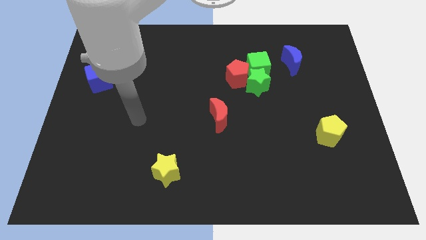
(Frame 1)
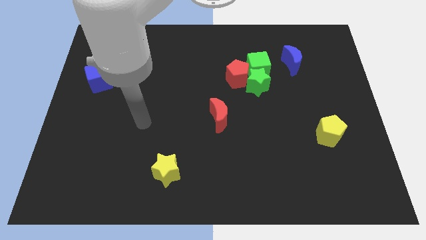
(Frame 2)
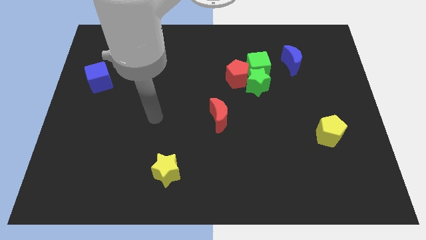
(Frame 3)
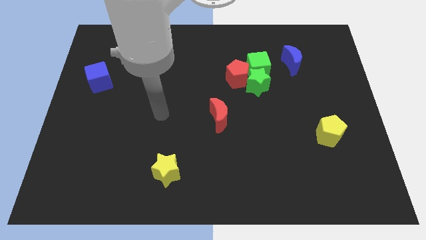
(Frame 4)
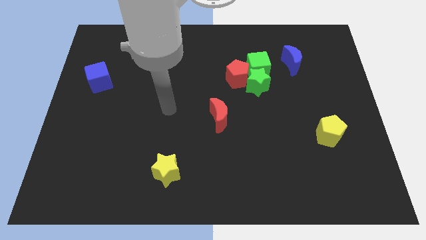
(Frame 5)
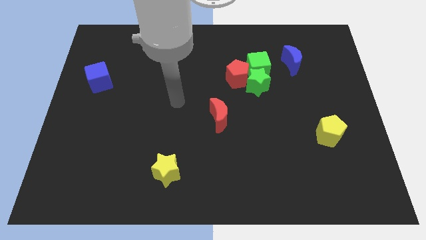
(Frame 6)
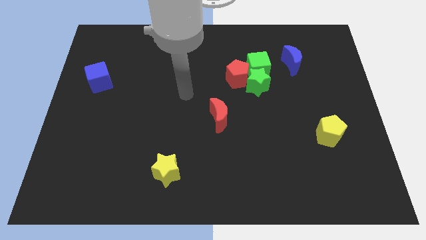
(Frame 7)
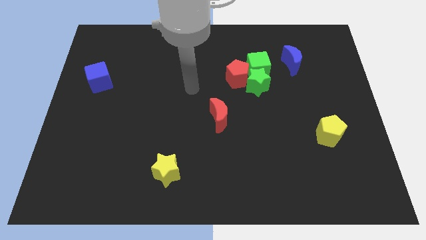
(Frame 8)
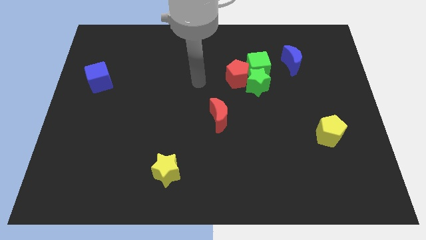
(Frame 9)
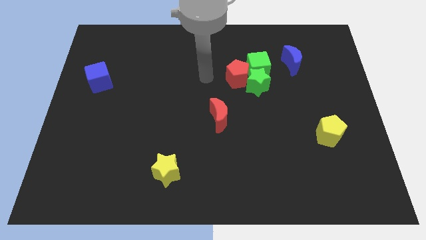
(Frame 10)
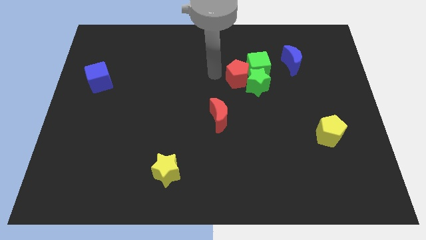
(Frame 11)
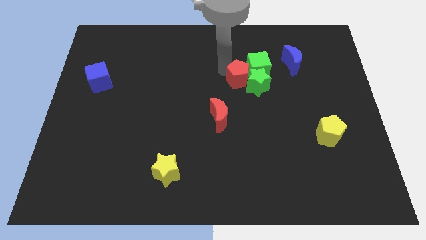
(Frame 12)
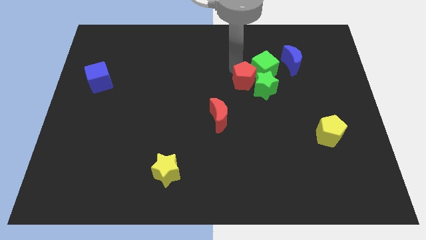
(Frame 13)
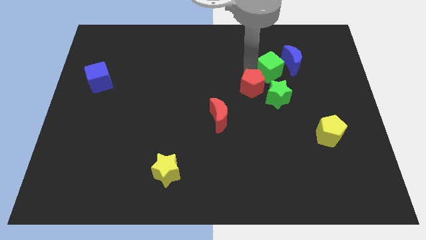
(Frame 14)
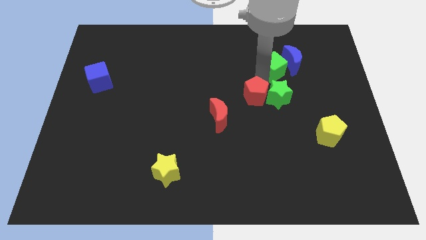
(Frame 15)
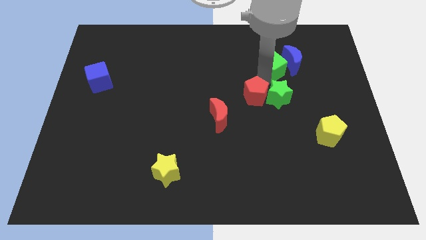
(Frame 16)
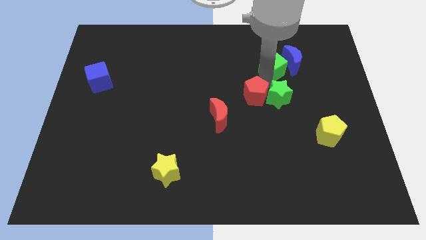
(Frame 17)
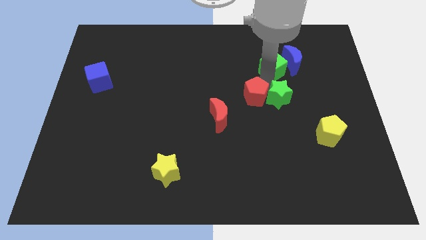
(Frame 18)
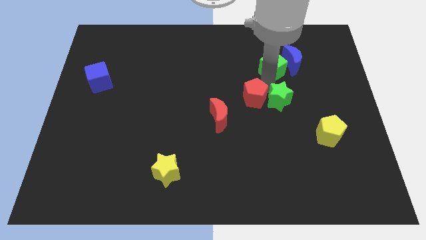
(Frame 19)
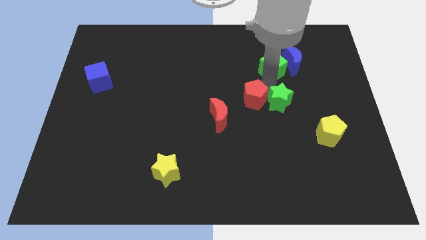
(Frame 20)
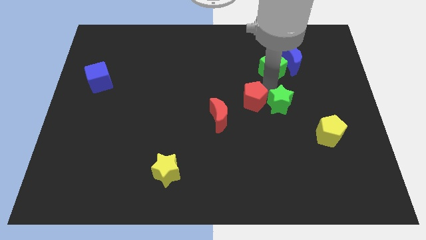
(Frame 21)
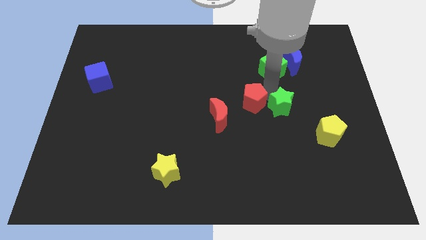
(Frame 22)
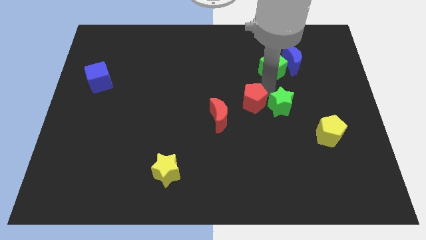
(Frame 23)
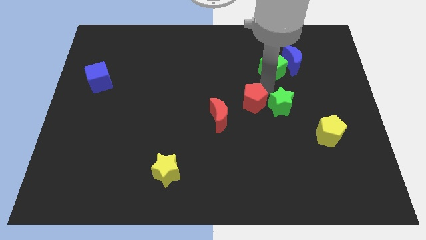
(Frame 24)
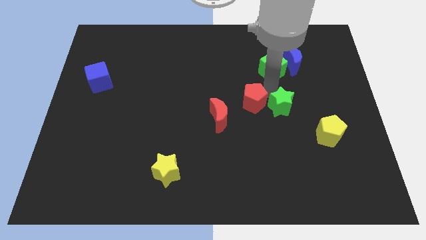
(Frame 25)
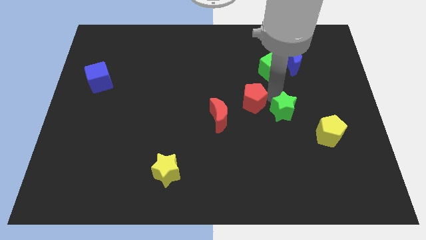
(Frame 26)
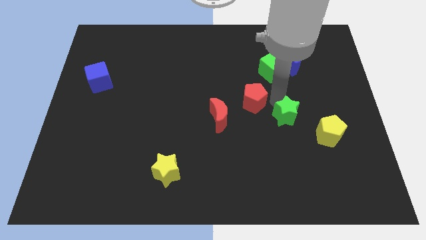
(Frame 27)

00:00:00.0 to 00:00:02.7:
move the green star away from the green cube and red pentagon

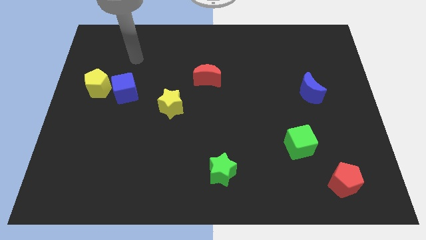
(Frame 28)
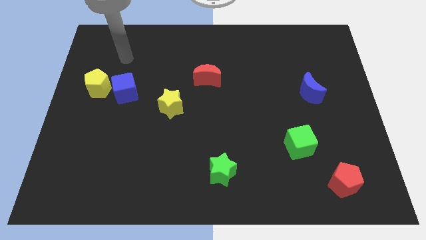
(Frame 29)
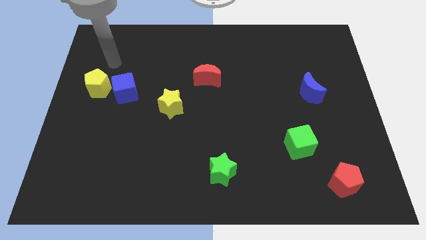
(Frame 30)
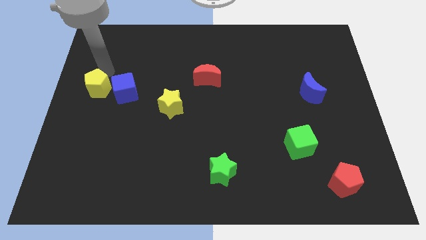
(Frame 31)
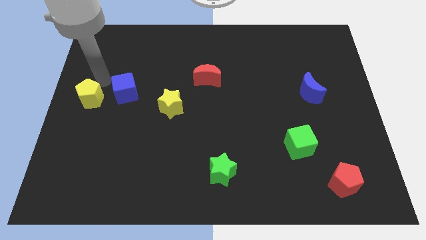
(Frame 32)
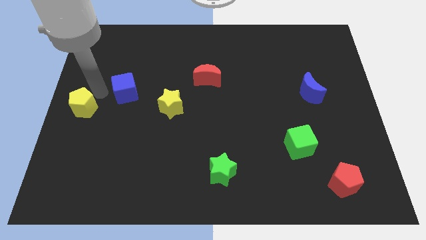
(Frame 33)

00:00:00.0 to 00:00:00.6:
separate the blue cube from the yellow pentagon

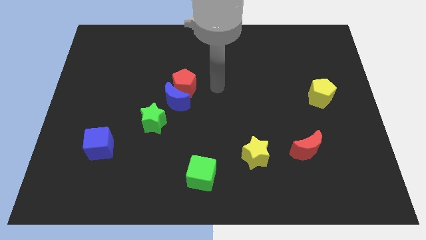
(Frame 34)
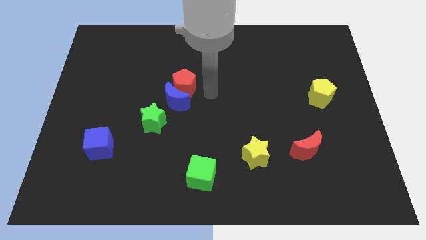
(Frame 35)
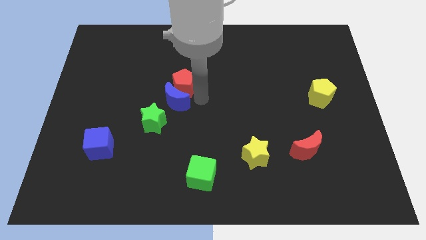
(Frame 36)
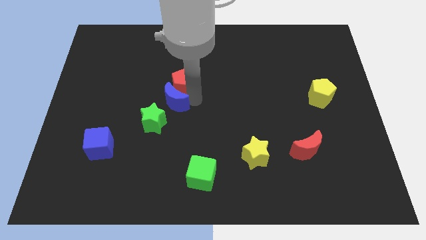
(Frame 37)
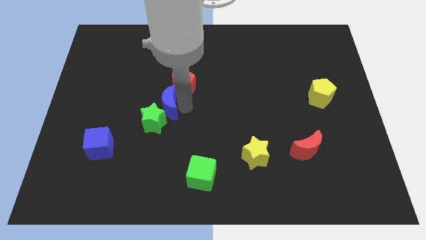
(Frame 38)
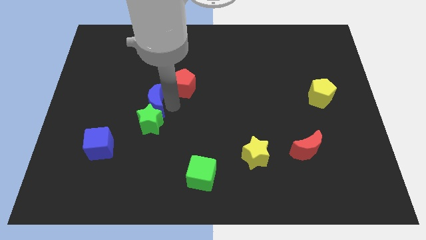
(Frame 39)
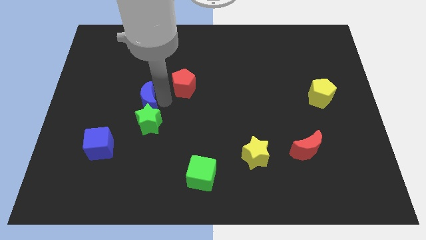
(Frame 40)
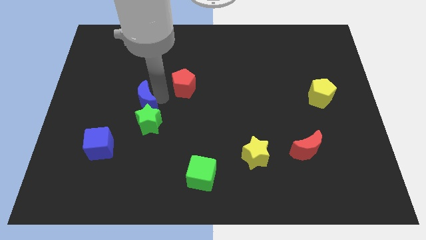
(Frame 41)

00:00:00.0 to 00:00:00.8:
move the red pentagon away from the blue moon

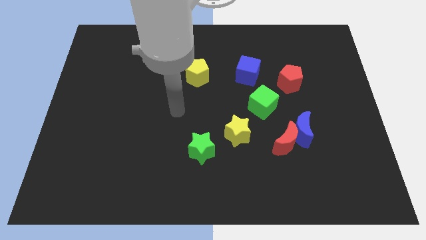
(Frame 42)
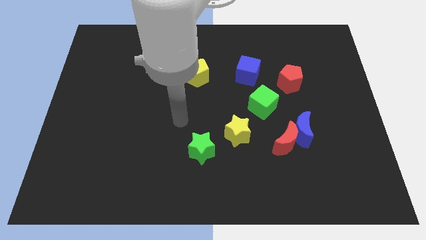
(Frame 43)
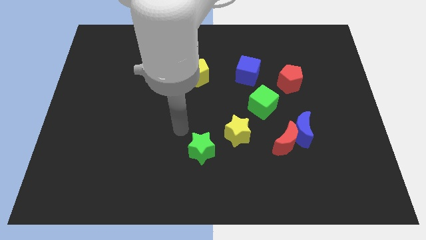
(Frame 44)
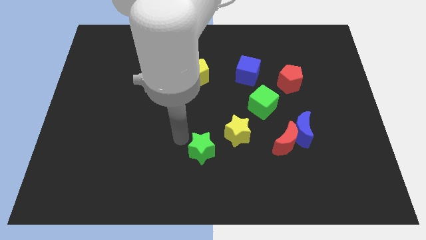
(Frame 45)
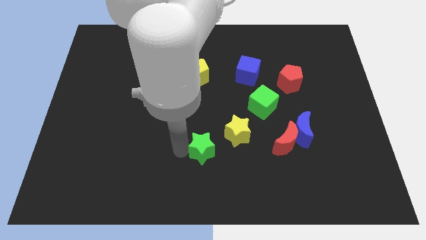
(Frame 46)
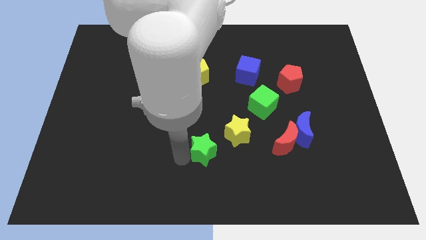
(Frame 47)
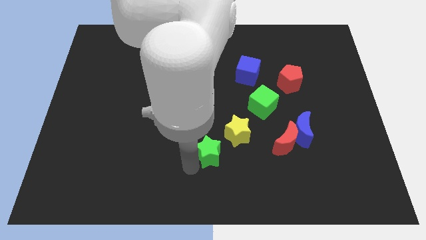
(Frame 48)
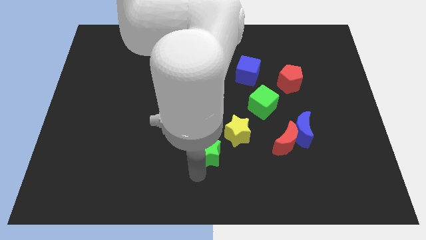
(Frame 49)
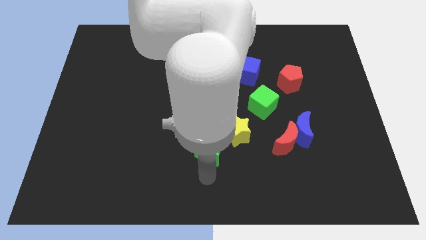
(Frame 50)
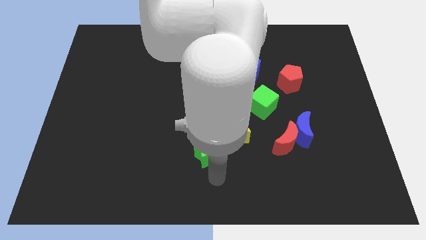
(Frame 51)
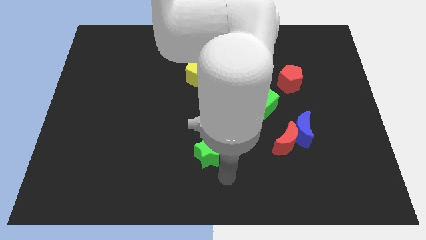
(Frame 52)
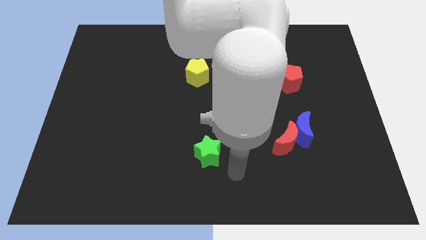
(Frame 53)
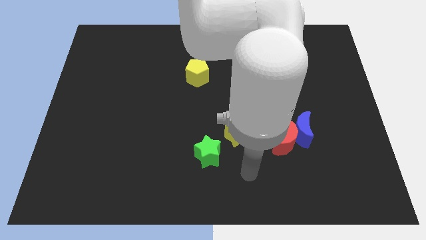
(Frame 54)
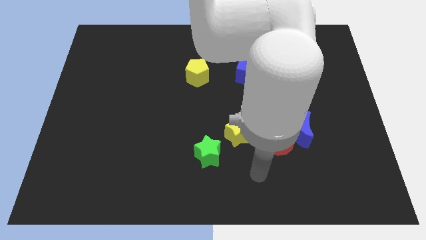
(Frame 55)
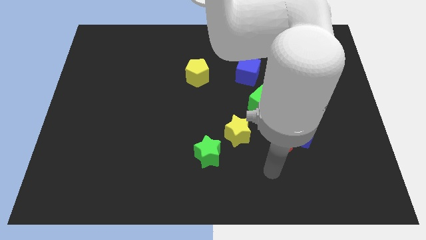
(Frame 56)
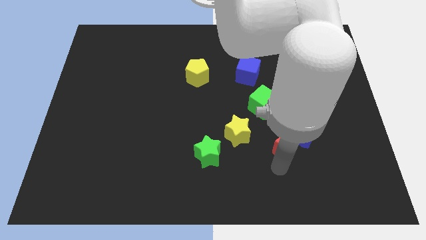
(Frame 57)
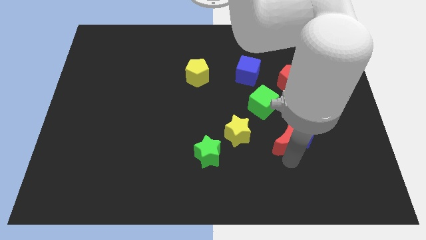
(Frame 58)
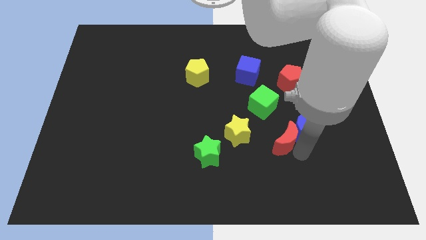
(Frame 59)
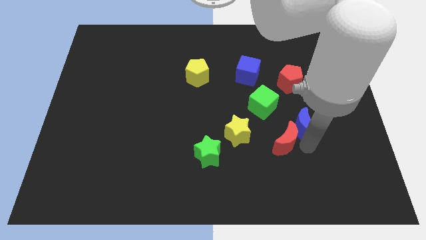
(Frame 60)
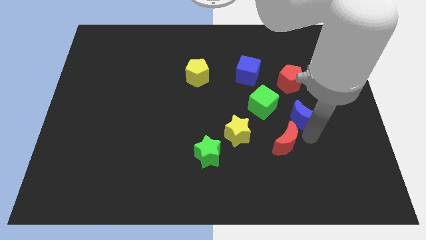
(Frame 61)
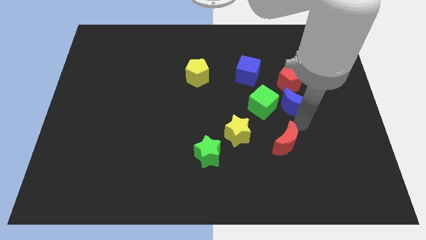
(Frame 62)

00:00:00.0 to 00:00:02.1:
separate the red moon from the blue moon

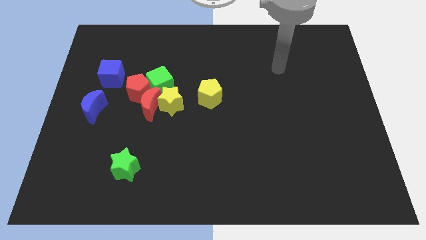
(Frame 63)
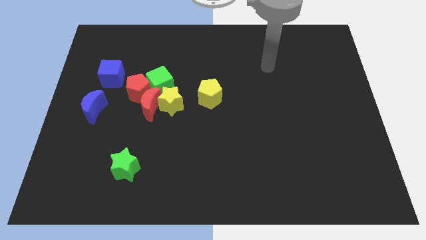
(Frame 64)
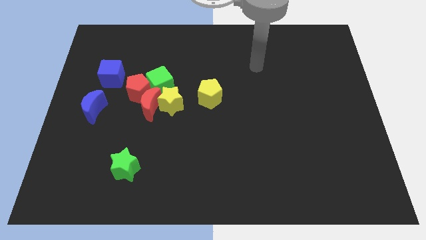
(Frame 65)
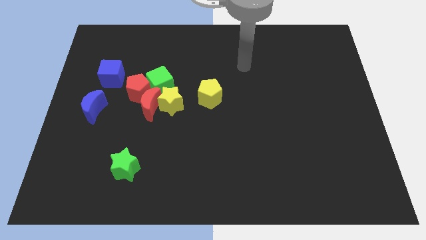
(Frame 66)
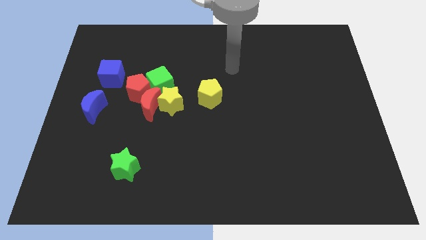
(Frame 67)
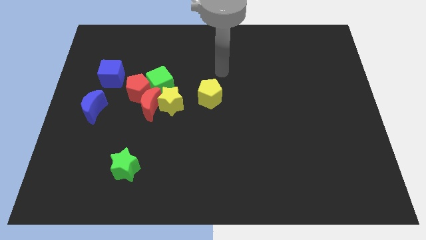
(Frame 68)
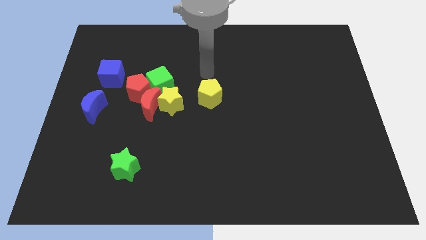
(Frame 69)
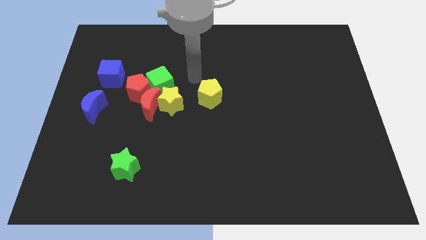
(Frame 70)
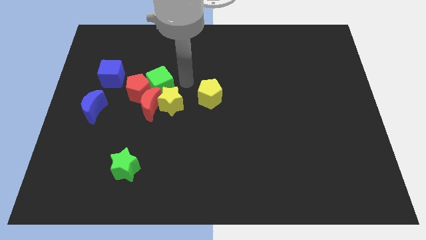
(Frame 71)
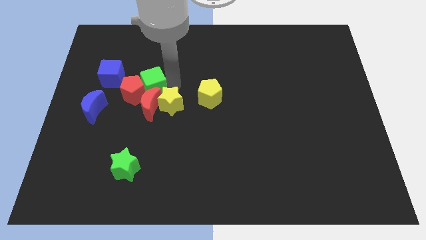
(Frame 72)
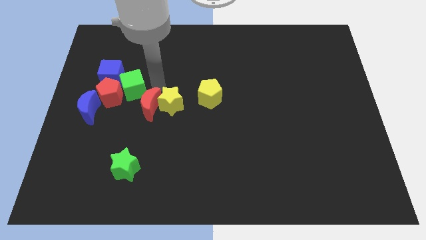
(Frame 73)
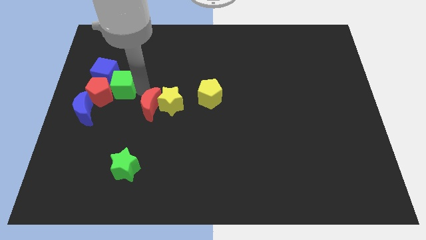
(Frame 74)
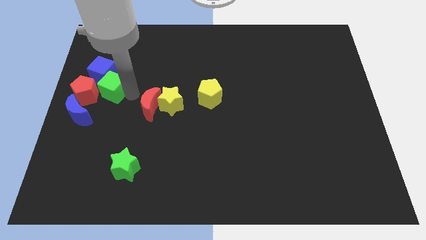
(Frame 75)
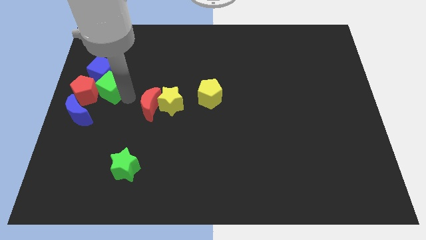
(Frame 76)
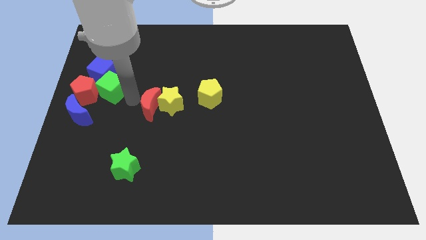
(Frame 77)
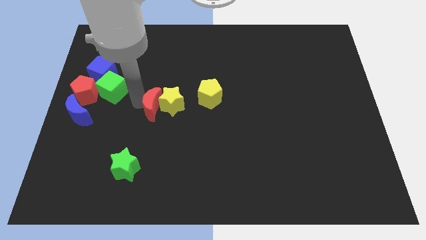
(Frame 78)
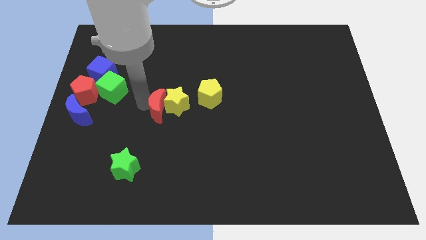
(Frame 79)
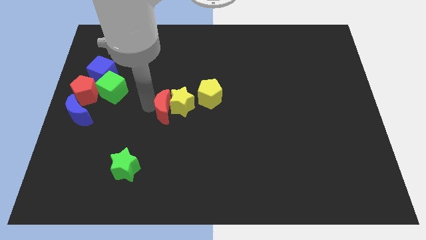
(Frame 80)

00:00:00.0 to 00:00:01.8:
pull the red moon apart from the group of blocks

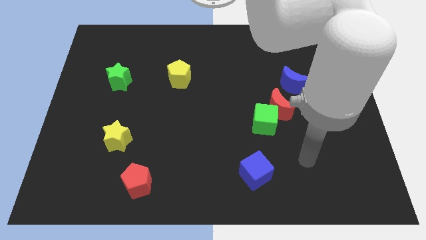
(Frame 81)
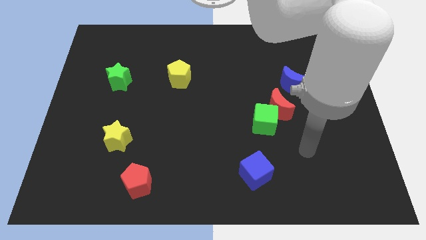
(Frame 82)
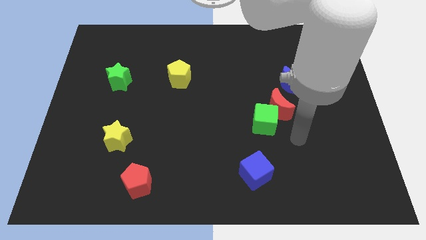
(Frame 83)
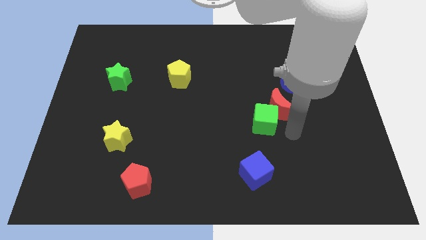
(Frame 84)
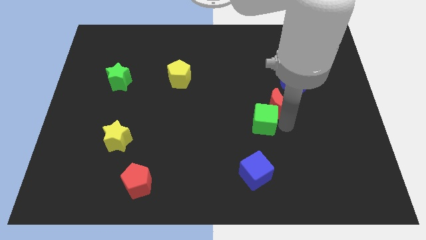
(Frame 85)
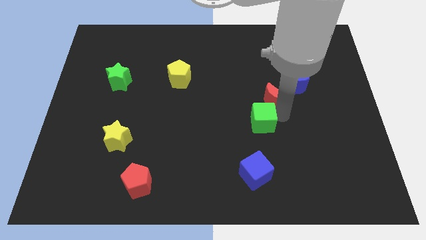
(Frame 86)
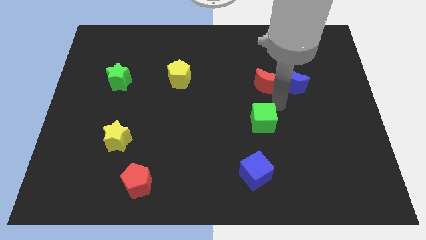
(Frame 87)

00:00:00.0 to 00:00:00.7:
move the green cube away from the red moon

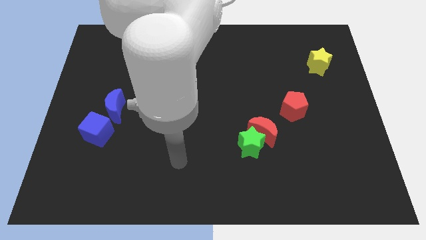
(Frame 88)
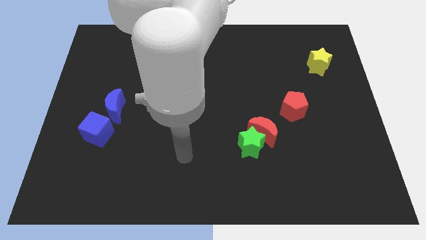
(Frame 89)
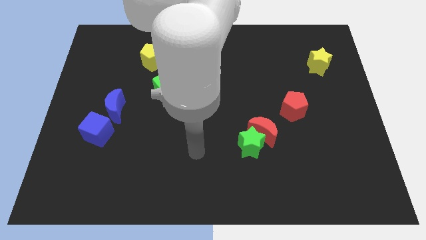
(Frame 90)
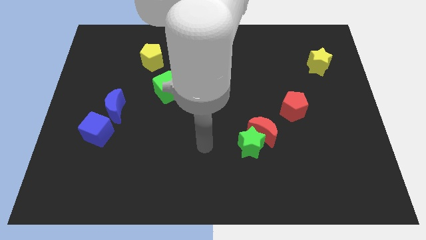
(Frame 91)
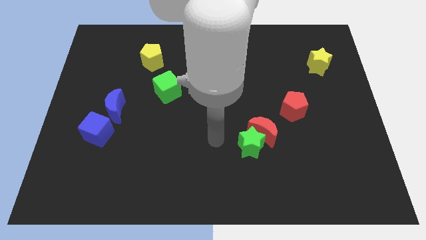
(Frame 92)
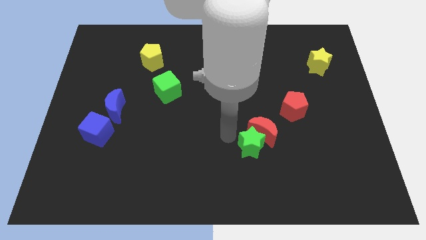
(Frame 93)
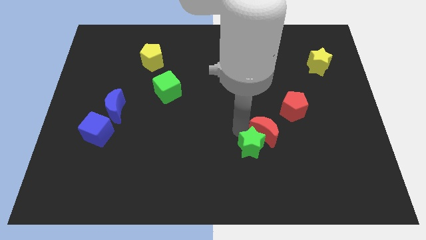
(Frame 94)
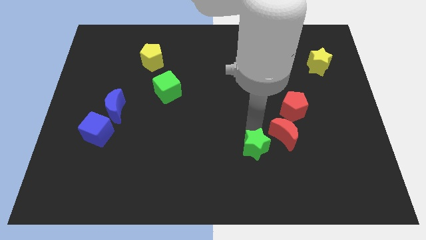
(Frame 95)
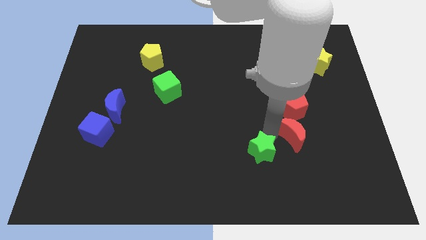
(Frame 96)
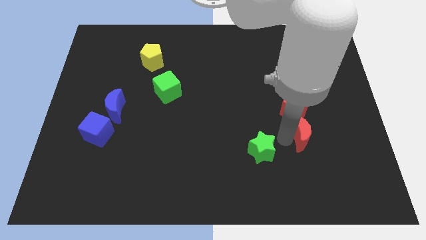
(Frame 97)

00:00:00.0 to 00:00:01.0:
move the green star away from the red moon
